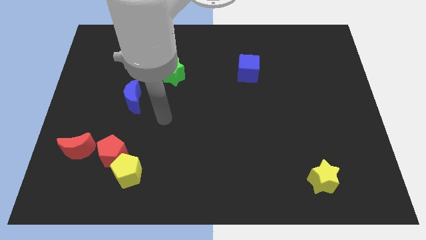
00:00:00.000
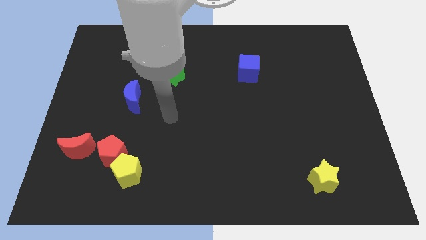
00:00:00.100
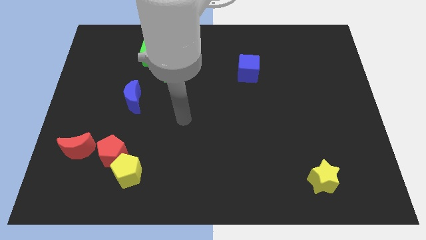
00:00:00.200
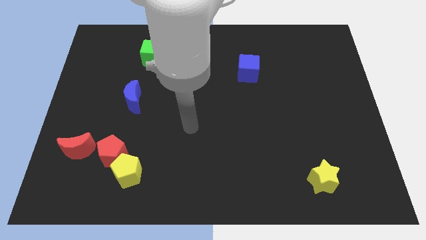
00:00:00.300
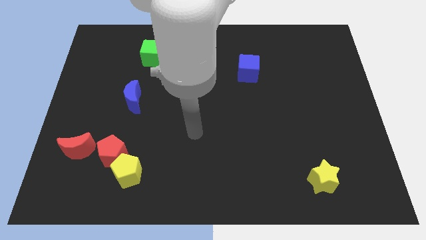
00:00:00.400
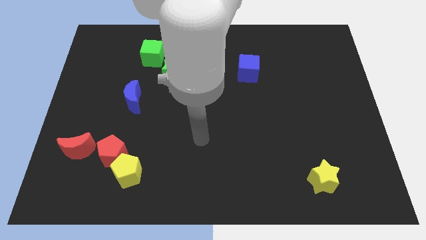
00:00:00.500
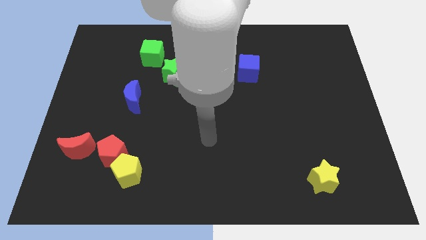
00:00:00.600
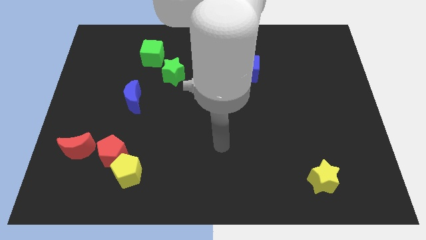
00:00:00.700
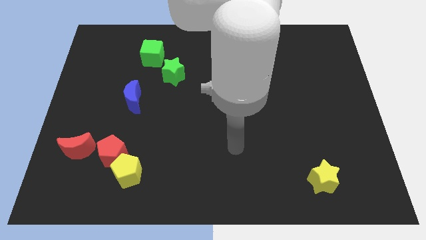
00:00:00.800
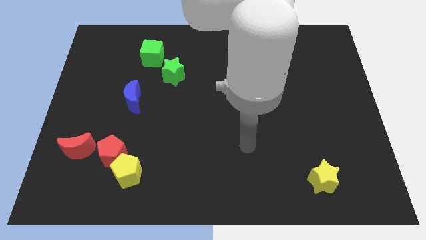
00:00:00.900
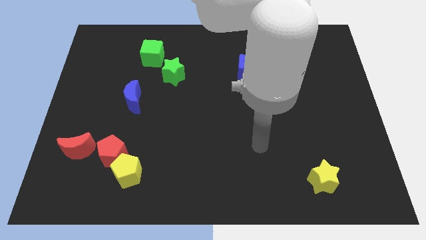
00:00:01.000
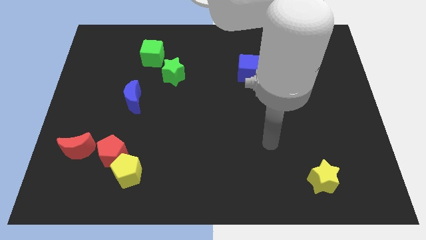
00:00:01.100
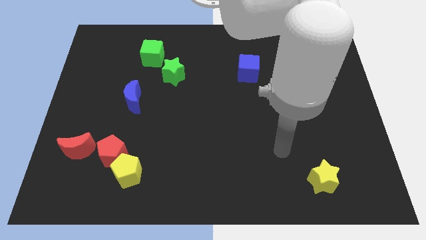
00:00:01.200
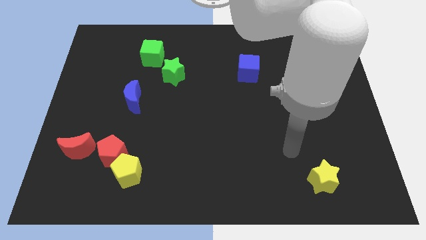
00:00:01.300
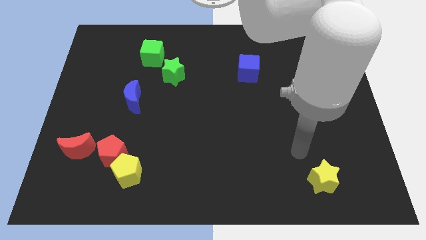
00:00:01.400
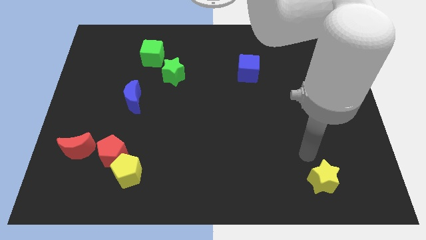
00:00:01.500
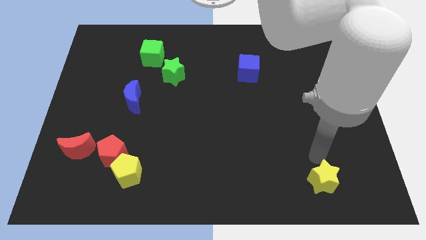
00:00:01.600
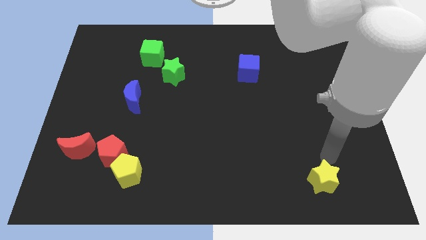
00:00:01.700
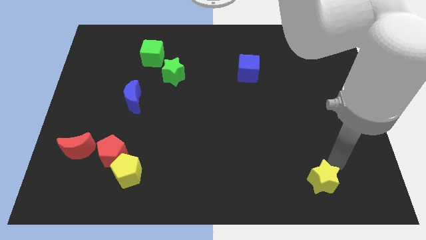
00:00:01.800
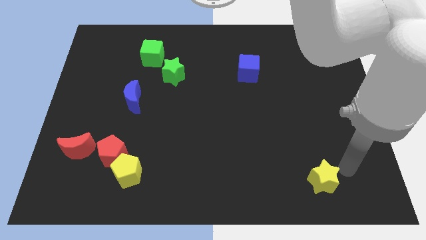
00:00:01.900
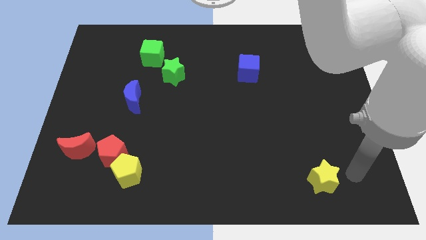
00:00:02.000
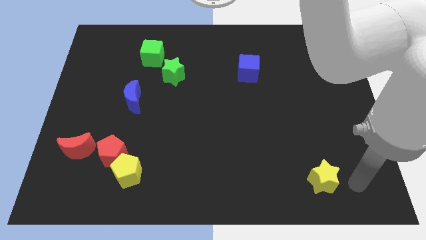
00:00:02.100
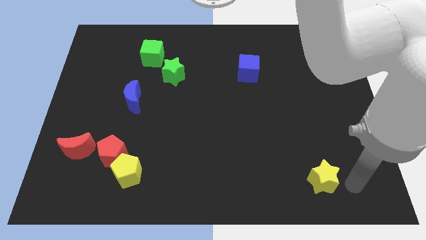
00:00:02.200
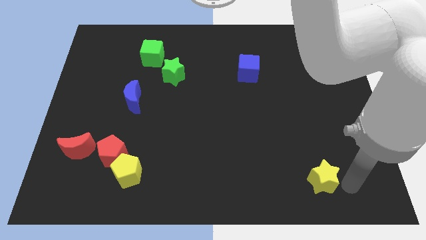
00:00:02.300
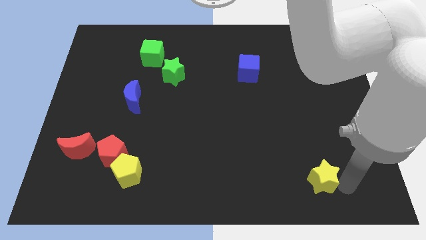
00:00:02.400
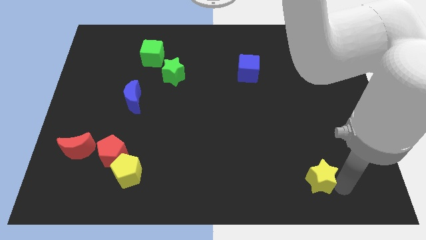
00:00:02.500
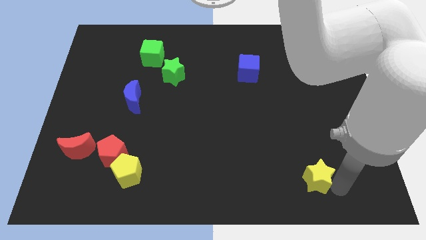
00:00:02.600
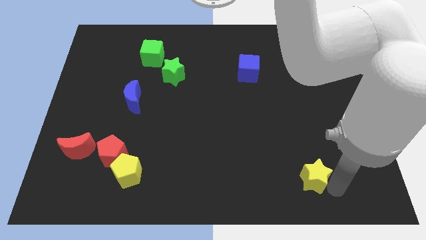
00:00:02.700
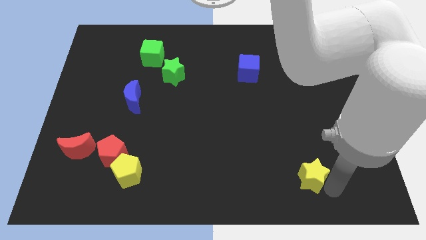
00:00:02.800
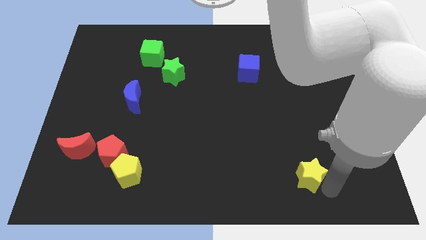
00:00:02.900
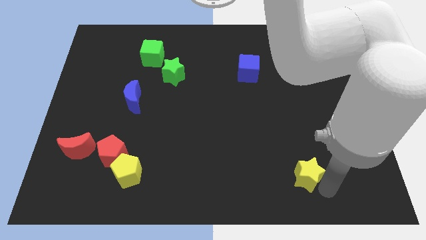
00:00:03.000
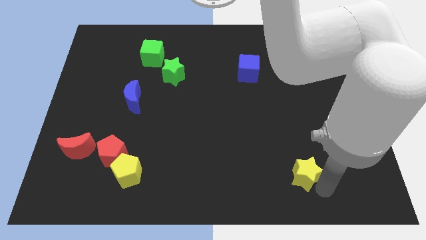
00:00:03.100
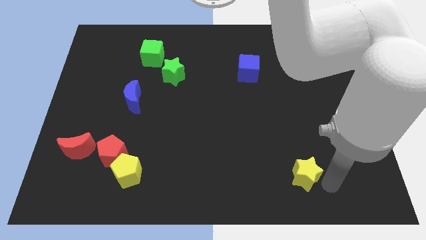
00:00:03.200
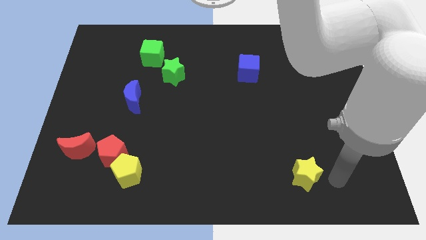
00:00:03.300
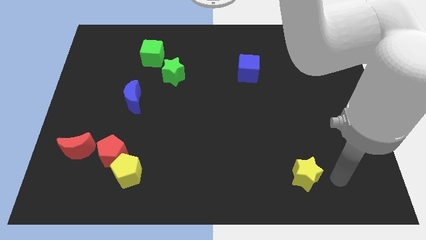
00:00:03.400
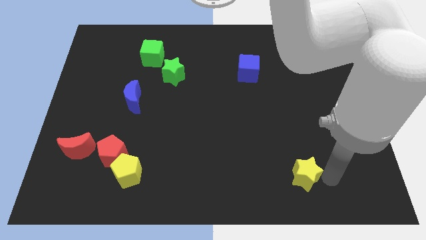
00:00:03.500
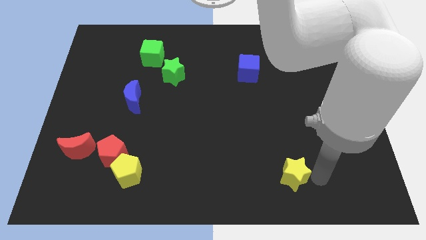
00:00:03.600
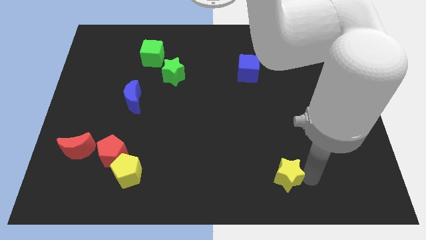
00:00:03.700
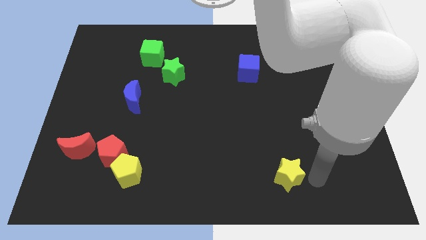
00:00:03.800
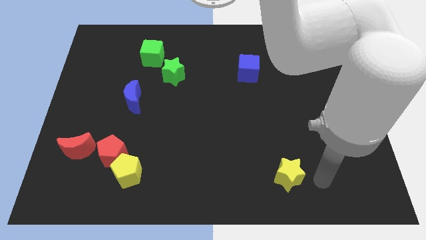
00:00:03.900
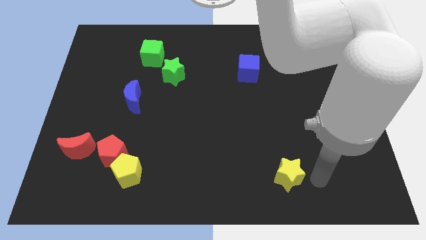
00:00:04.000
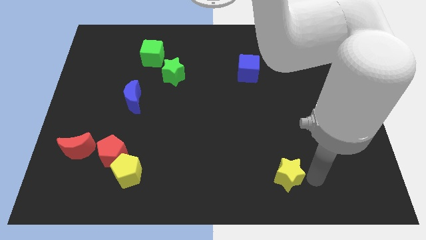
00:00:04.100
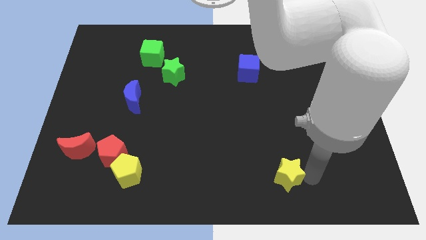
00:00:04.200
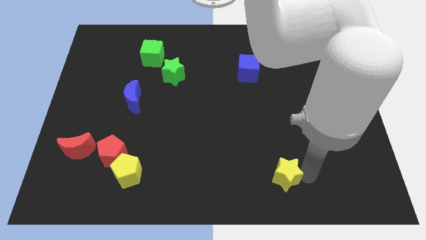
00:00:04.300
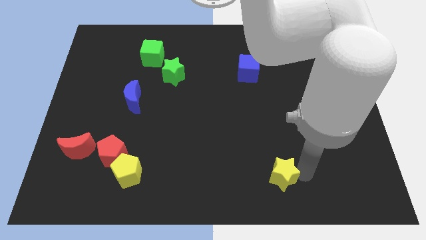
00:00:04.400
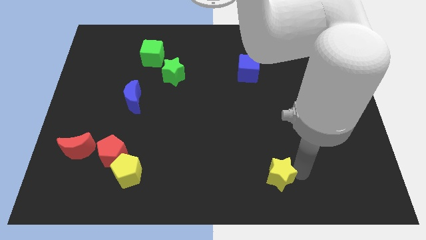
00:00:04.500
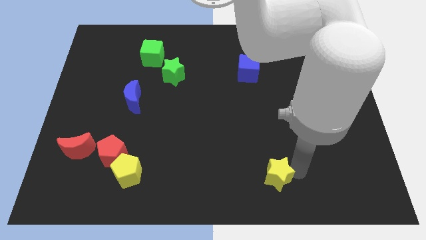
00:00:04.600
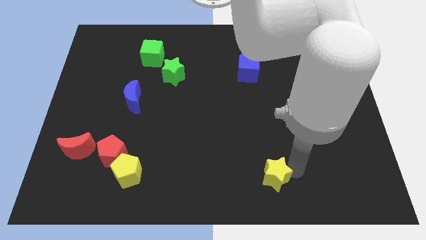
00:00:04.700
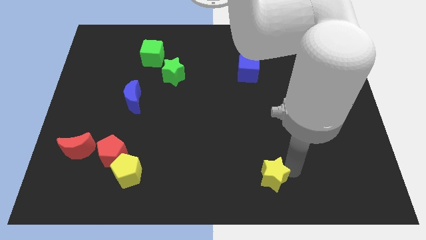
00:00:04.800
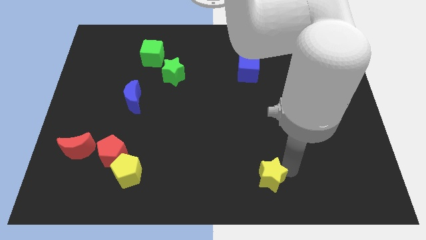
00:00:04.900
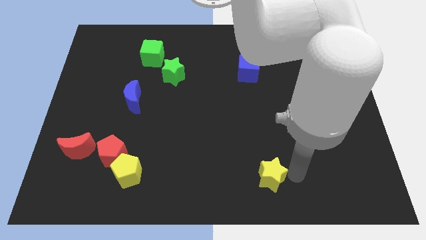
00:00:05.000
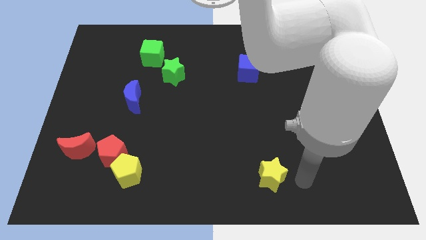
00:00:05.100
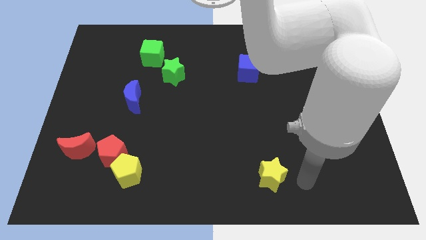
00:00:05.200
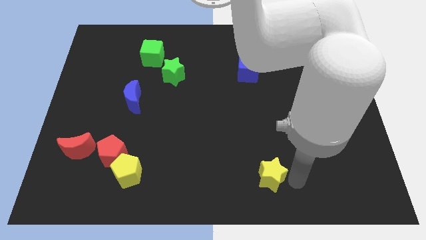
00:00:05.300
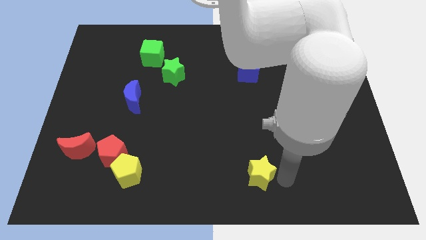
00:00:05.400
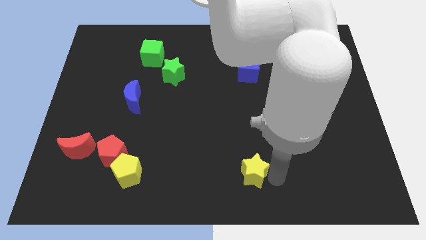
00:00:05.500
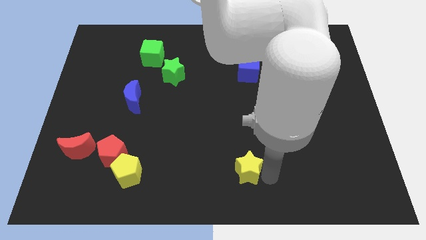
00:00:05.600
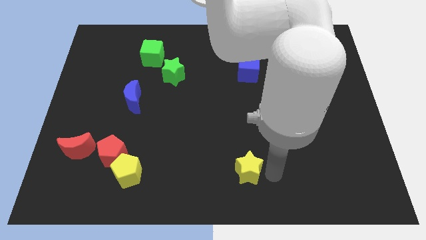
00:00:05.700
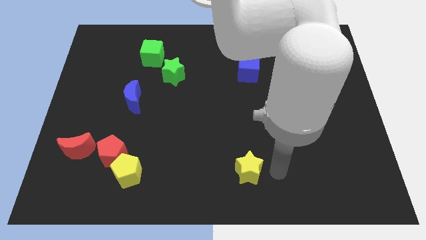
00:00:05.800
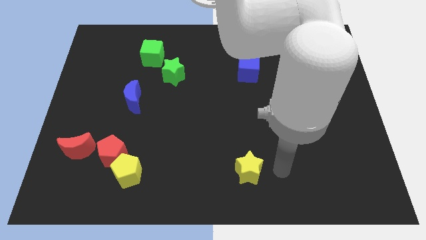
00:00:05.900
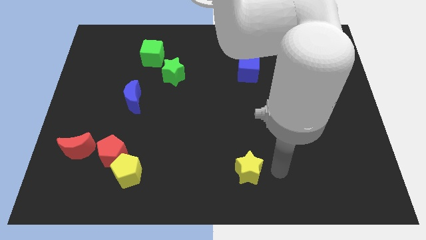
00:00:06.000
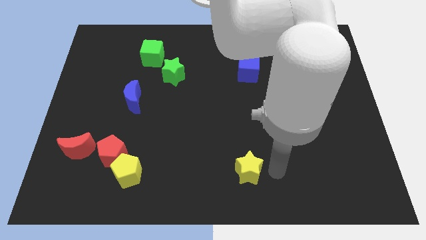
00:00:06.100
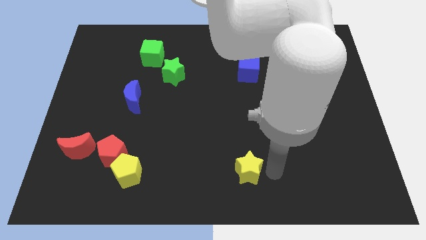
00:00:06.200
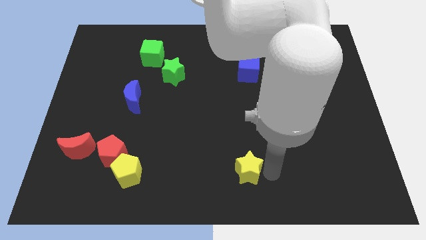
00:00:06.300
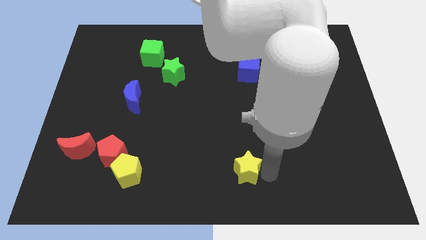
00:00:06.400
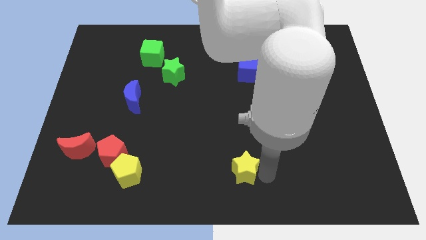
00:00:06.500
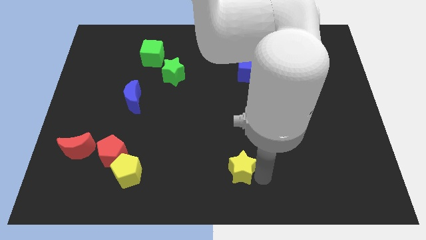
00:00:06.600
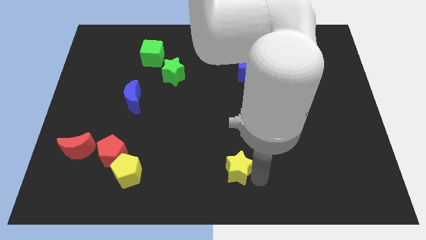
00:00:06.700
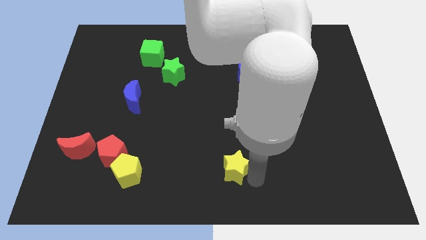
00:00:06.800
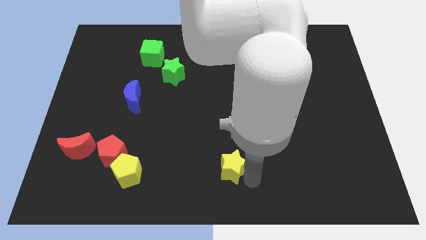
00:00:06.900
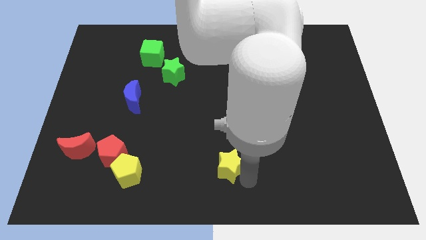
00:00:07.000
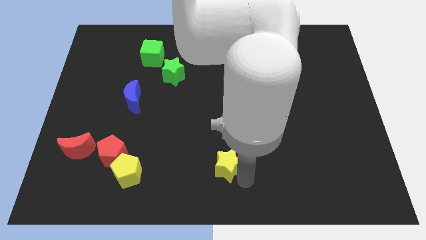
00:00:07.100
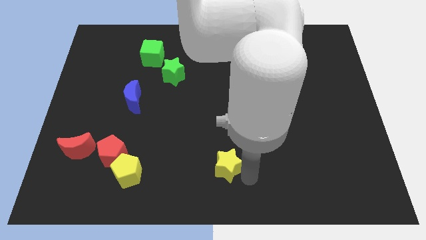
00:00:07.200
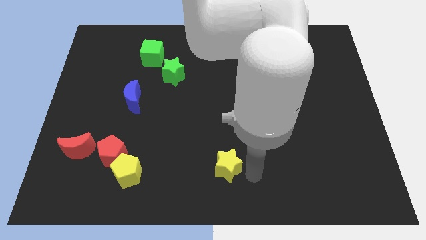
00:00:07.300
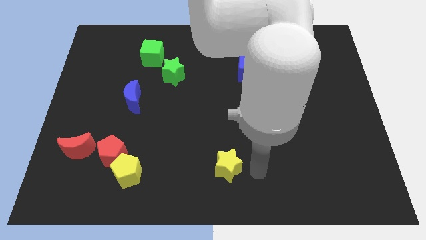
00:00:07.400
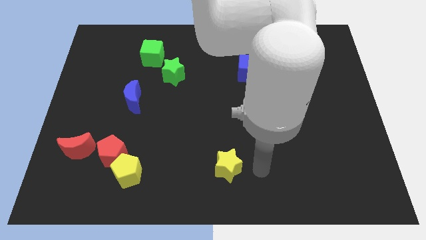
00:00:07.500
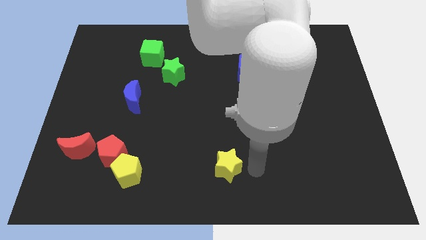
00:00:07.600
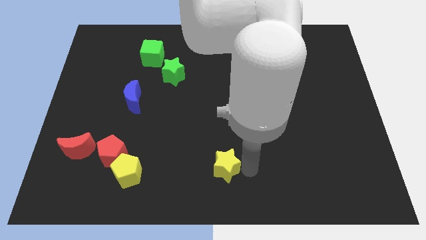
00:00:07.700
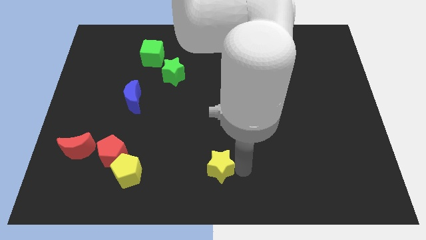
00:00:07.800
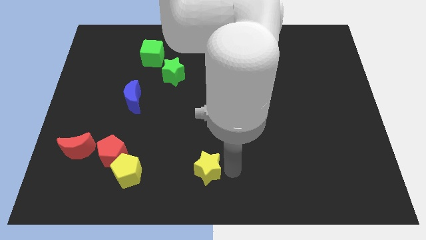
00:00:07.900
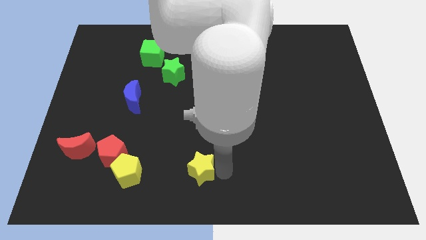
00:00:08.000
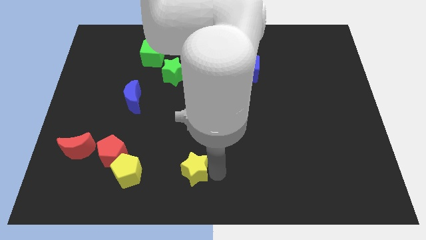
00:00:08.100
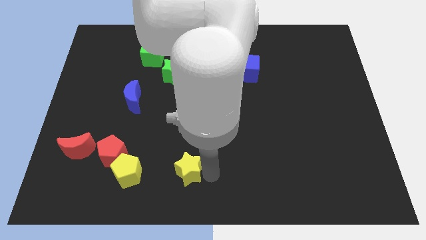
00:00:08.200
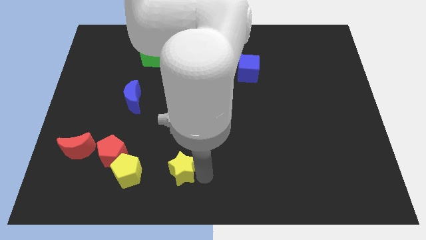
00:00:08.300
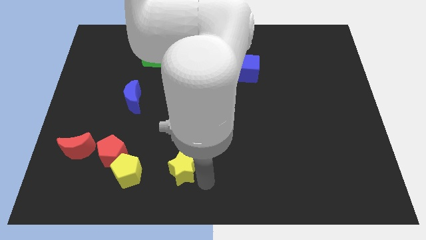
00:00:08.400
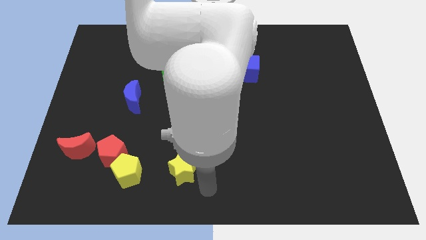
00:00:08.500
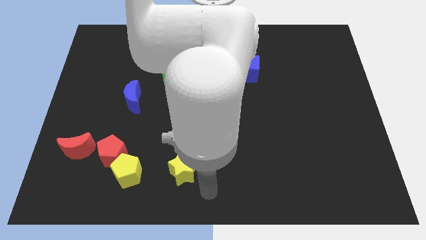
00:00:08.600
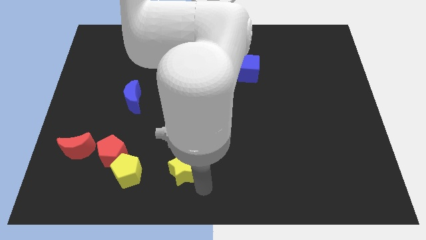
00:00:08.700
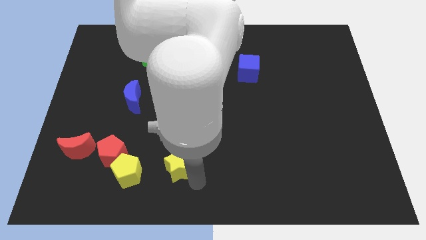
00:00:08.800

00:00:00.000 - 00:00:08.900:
put the yellow star just right of the red pentagon
